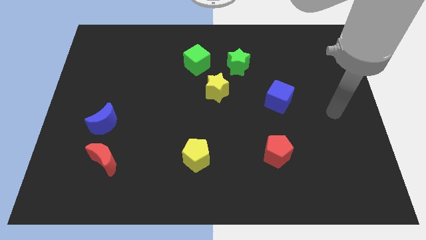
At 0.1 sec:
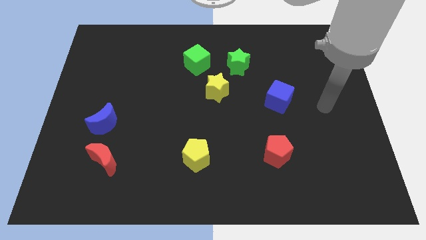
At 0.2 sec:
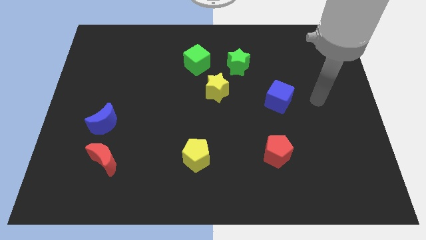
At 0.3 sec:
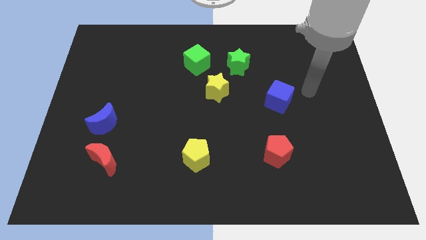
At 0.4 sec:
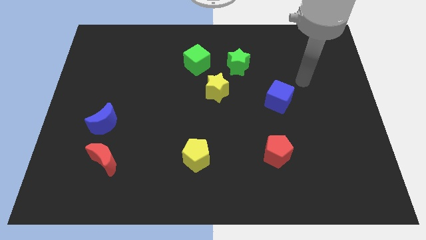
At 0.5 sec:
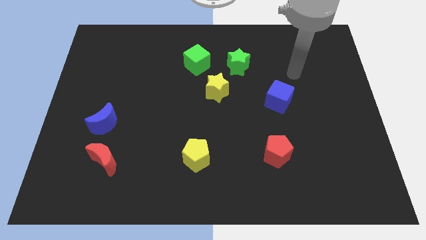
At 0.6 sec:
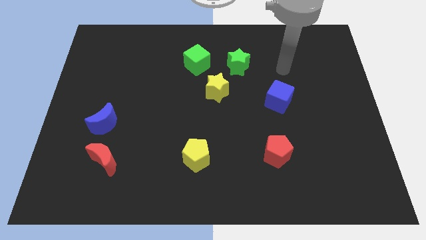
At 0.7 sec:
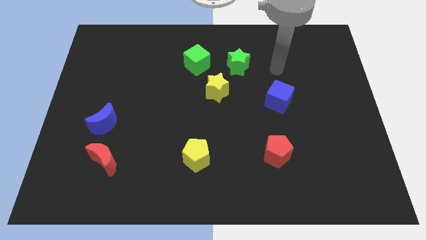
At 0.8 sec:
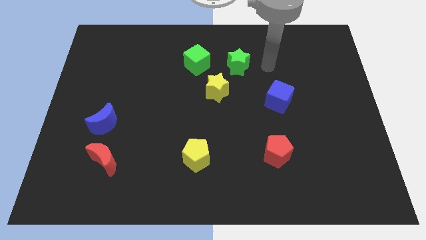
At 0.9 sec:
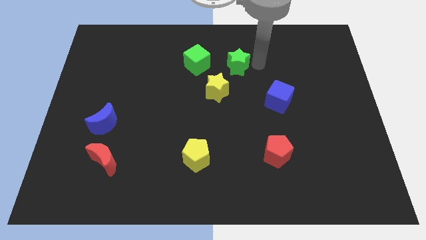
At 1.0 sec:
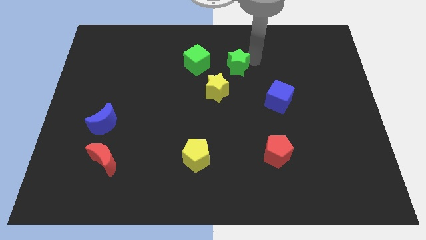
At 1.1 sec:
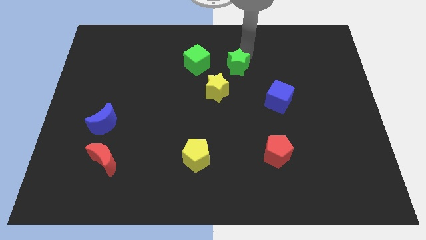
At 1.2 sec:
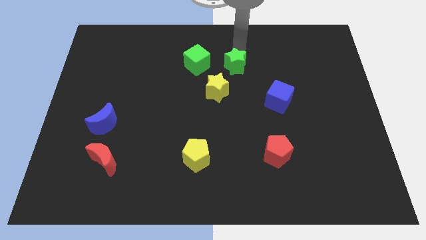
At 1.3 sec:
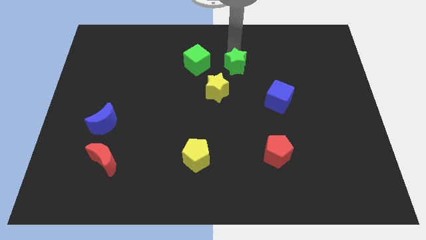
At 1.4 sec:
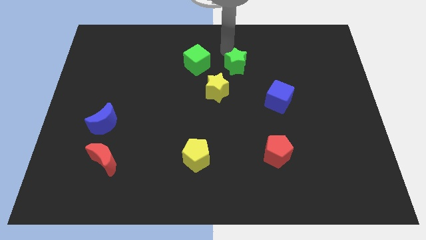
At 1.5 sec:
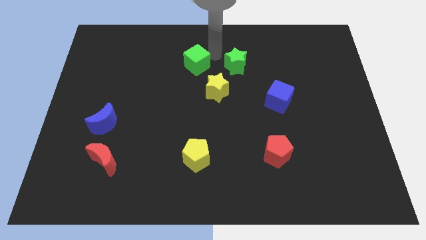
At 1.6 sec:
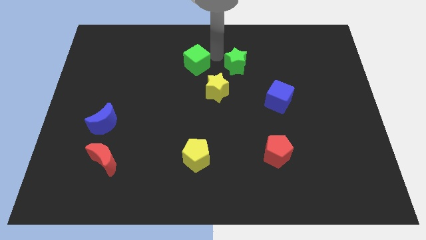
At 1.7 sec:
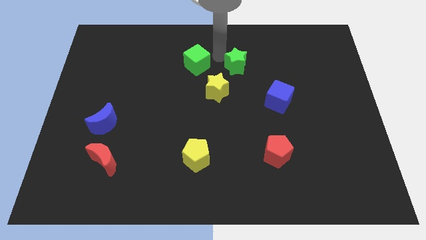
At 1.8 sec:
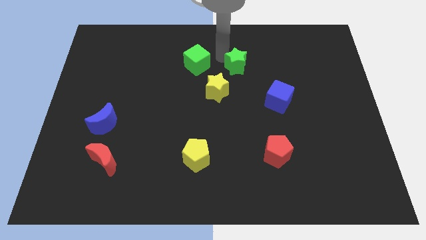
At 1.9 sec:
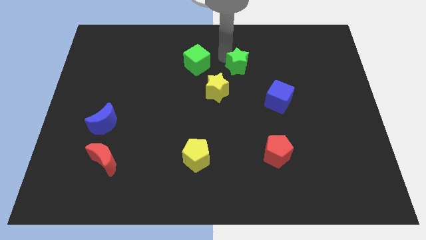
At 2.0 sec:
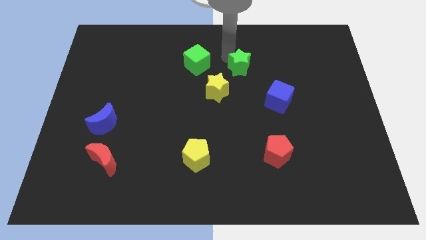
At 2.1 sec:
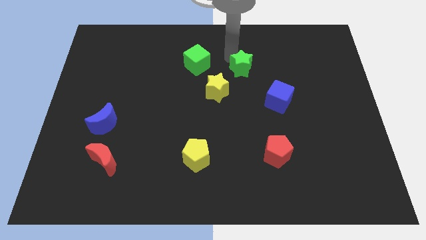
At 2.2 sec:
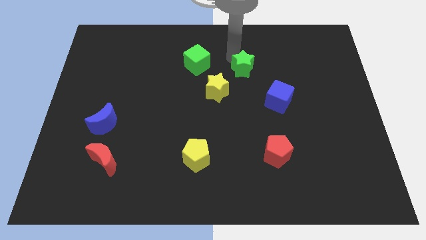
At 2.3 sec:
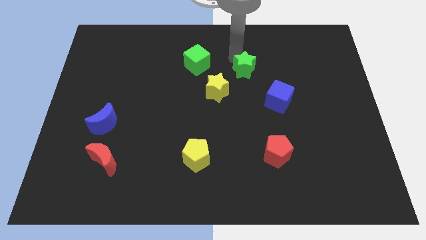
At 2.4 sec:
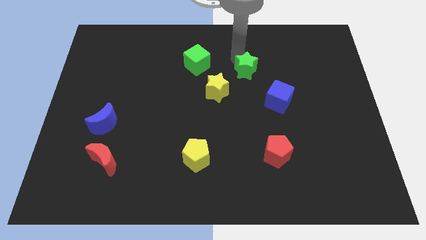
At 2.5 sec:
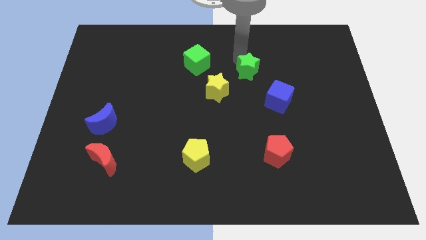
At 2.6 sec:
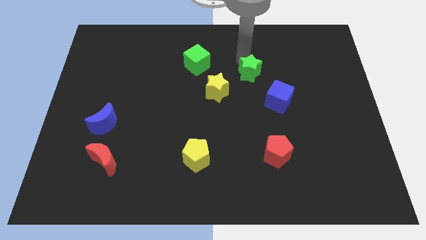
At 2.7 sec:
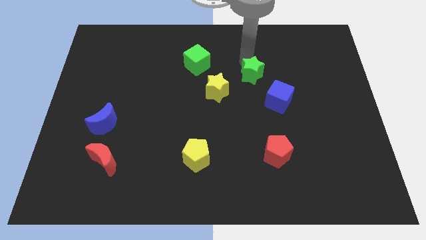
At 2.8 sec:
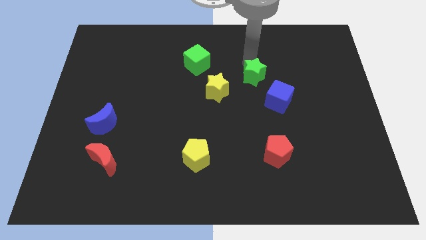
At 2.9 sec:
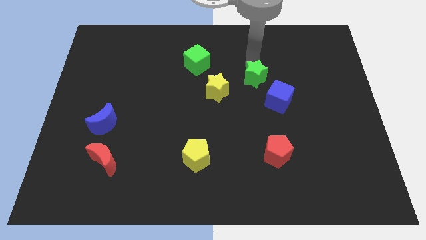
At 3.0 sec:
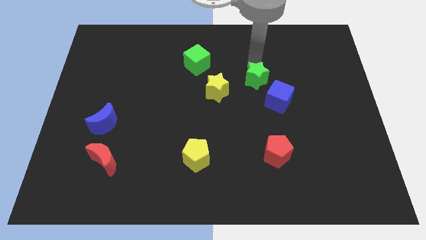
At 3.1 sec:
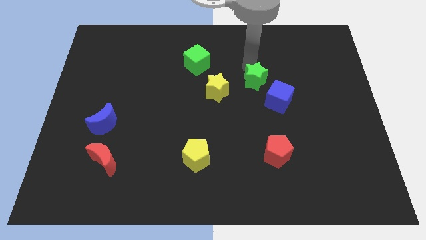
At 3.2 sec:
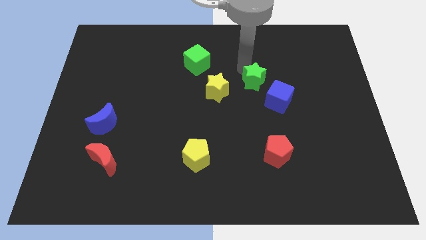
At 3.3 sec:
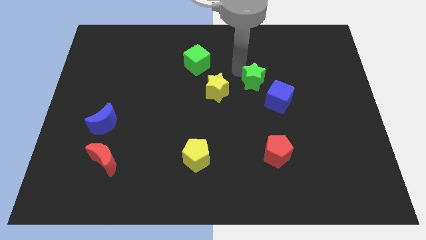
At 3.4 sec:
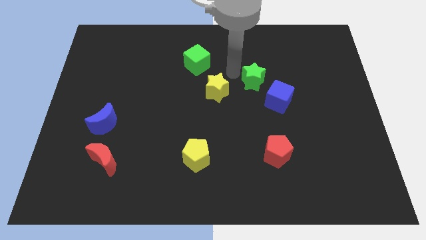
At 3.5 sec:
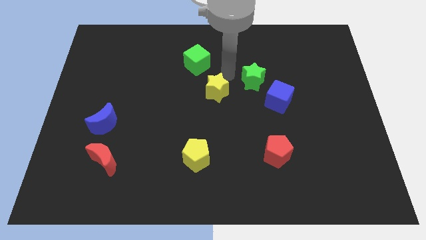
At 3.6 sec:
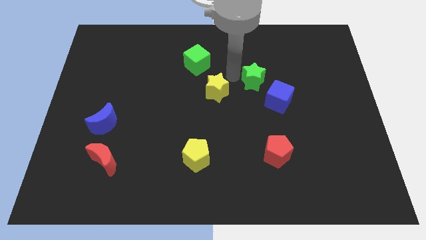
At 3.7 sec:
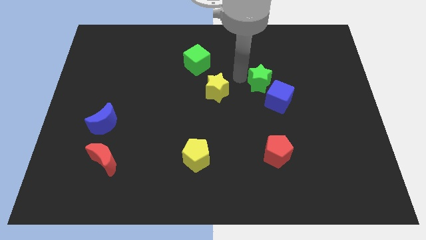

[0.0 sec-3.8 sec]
push the green star a little down and right diagonally

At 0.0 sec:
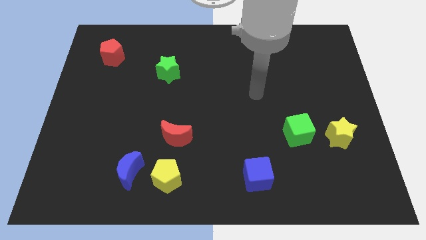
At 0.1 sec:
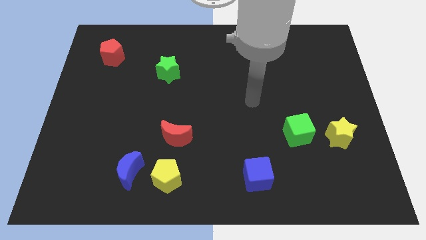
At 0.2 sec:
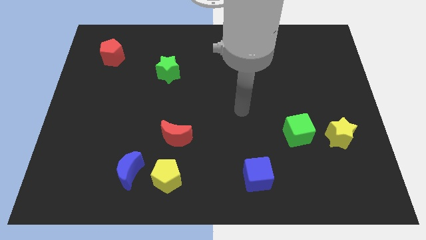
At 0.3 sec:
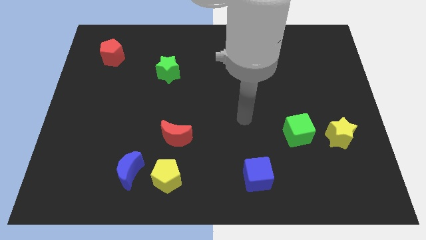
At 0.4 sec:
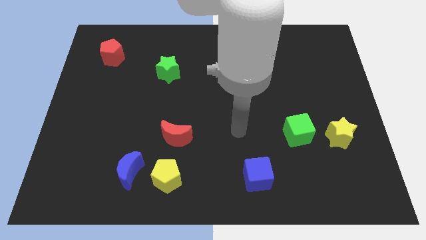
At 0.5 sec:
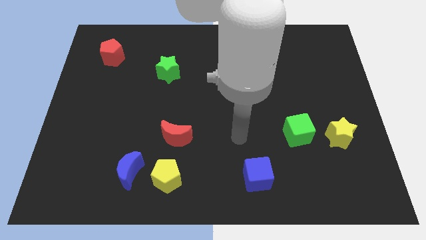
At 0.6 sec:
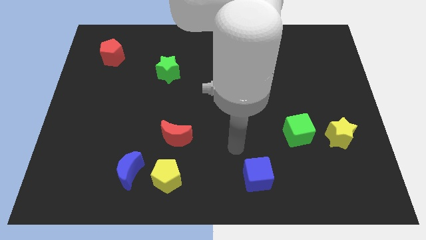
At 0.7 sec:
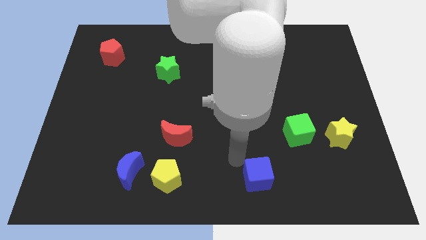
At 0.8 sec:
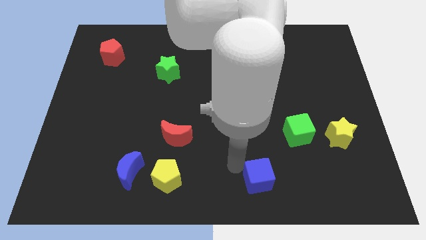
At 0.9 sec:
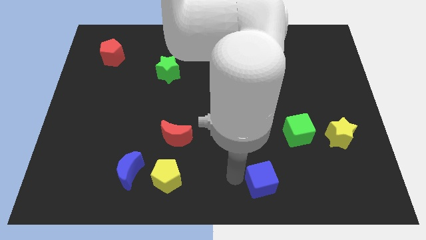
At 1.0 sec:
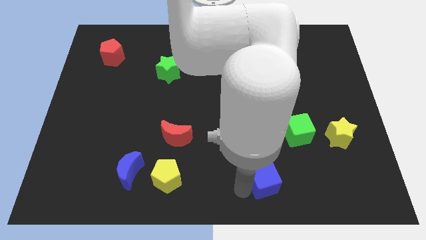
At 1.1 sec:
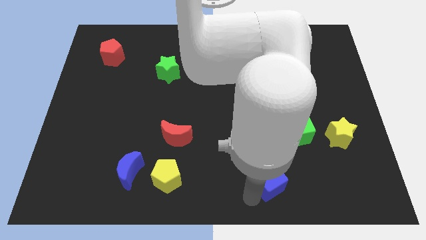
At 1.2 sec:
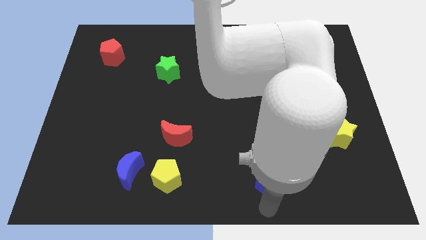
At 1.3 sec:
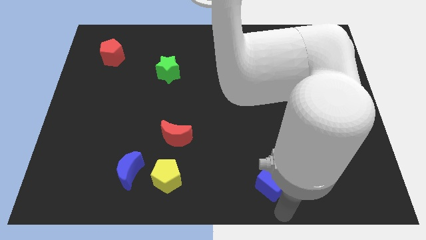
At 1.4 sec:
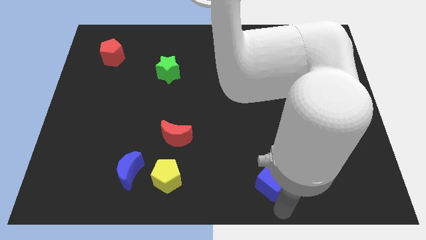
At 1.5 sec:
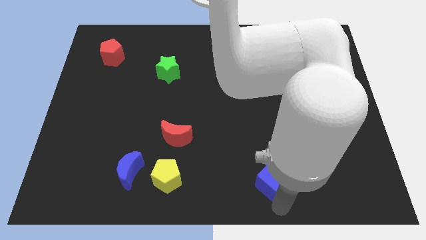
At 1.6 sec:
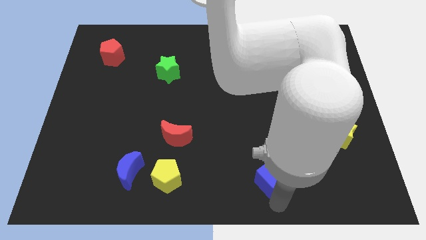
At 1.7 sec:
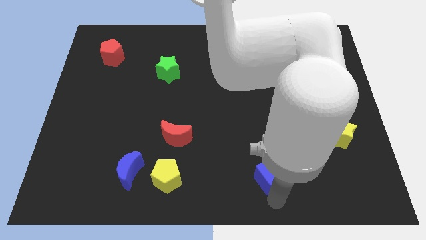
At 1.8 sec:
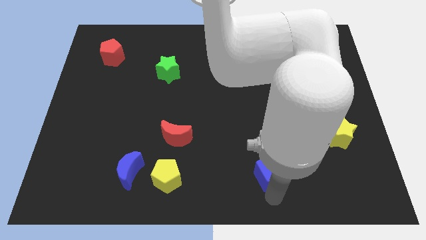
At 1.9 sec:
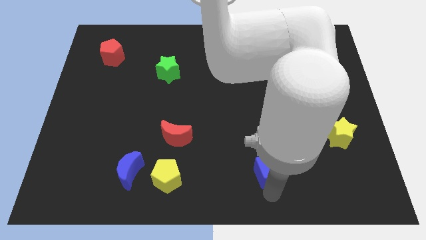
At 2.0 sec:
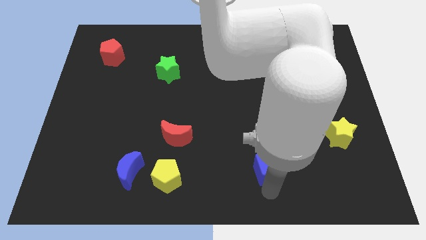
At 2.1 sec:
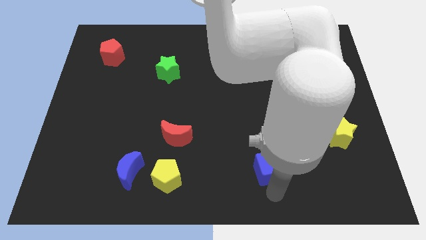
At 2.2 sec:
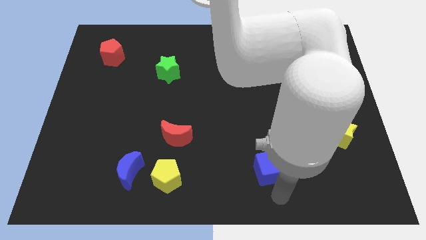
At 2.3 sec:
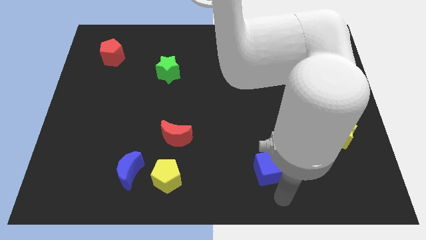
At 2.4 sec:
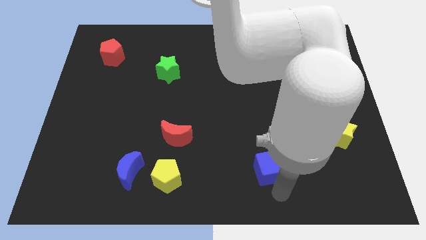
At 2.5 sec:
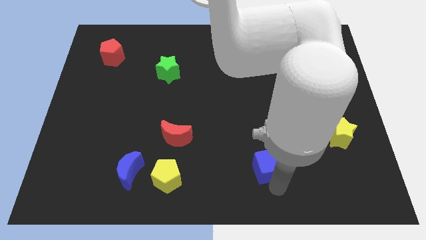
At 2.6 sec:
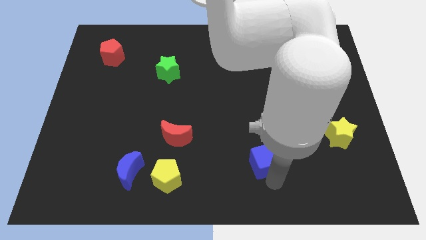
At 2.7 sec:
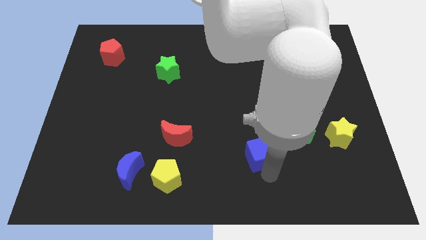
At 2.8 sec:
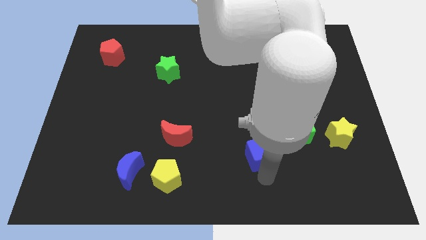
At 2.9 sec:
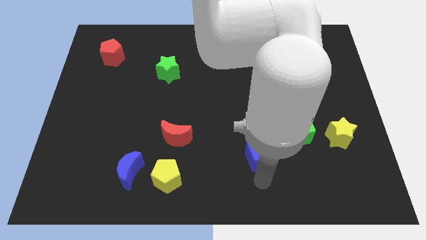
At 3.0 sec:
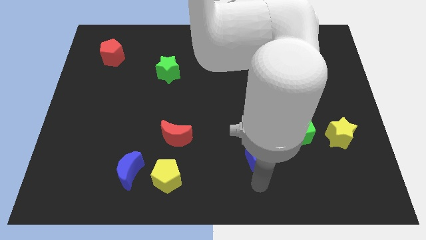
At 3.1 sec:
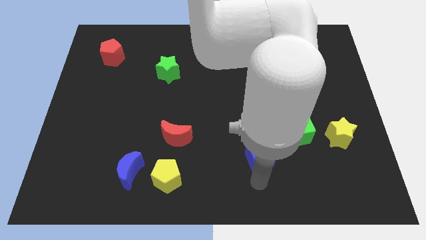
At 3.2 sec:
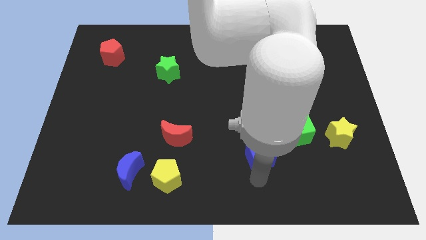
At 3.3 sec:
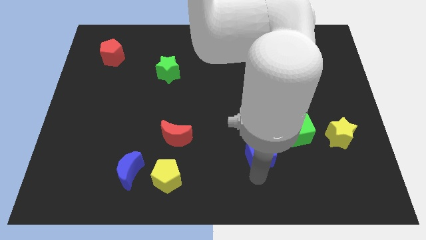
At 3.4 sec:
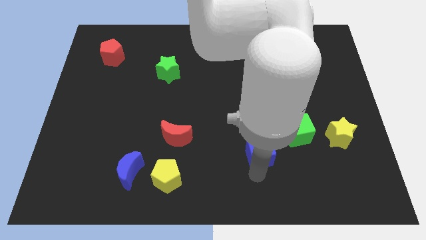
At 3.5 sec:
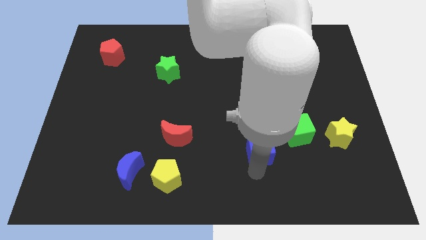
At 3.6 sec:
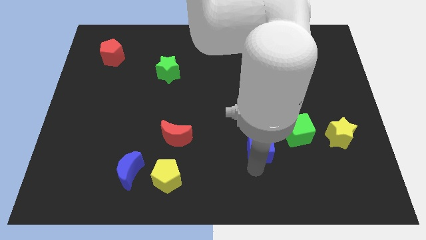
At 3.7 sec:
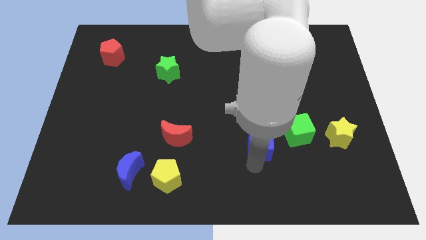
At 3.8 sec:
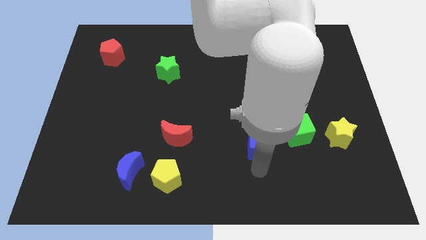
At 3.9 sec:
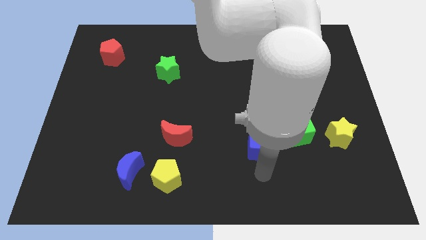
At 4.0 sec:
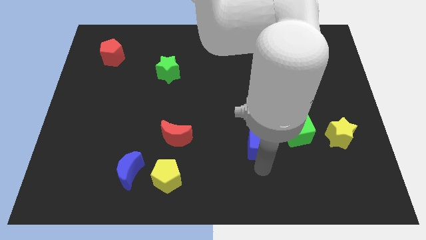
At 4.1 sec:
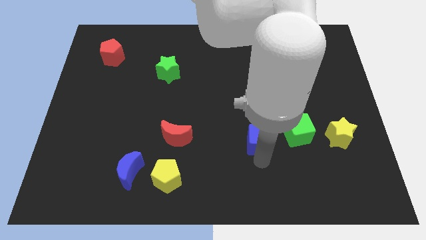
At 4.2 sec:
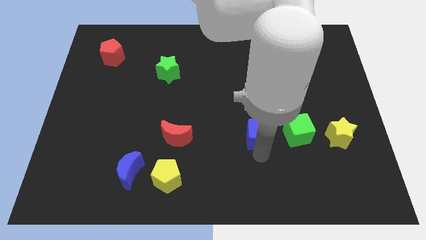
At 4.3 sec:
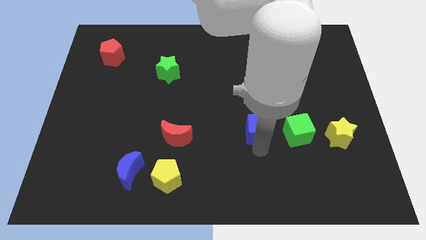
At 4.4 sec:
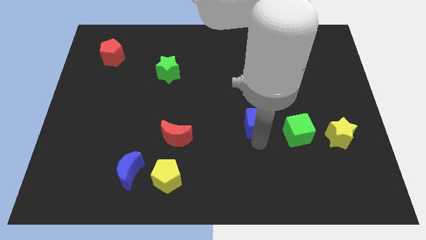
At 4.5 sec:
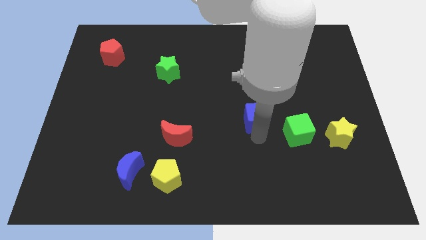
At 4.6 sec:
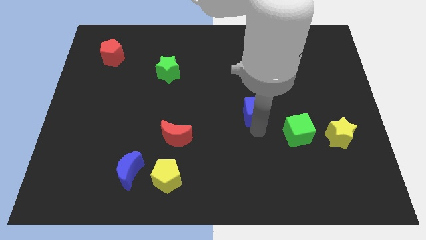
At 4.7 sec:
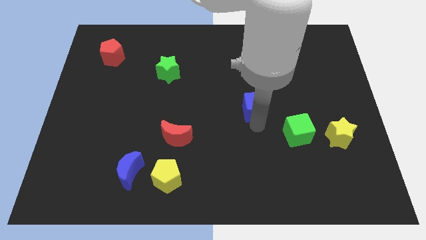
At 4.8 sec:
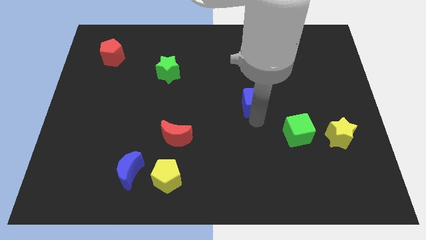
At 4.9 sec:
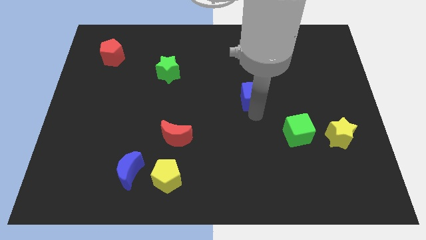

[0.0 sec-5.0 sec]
slide the blue cube up
